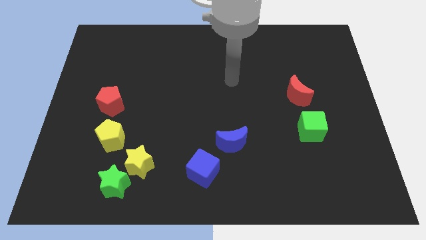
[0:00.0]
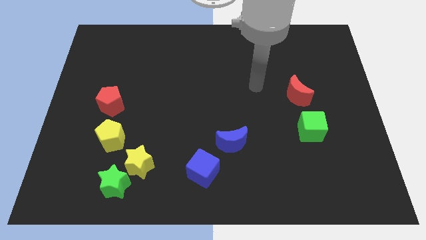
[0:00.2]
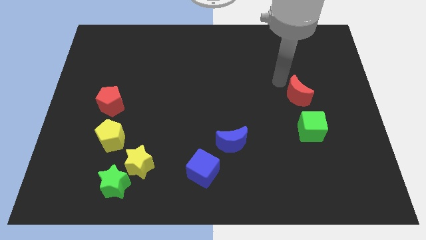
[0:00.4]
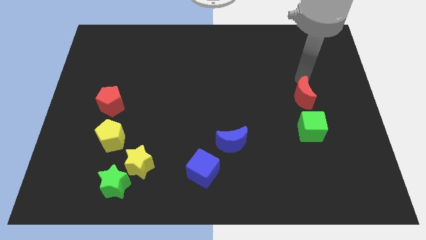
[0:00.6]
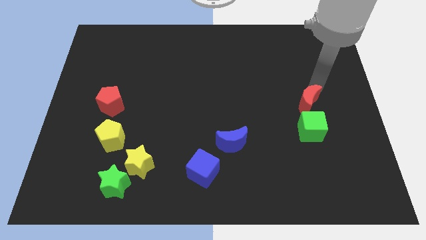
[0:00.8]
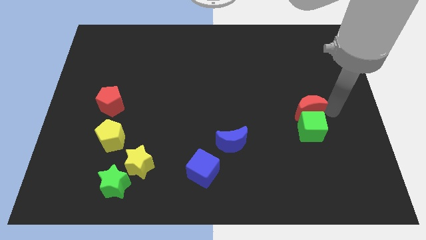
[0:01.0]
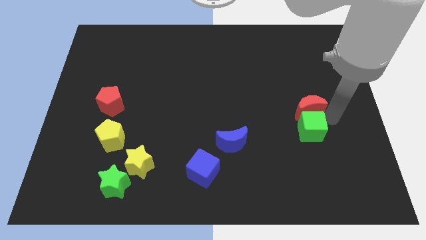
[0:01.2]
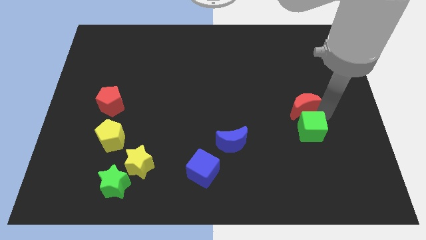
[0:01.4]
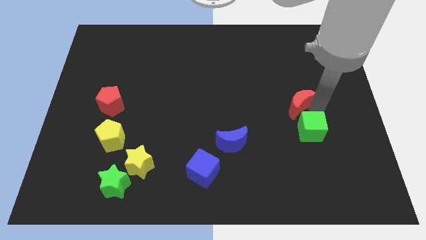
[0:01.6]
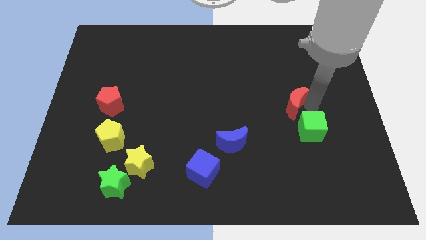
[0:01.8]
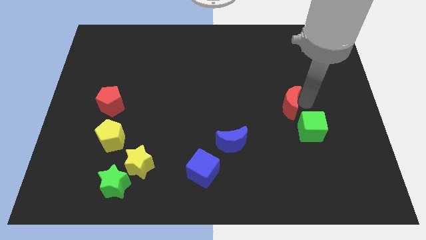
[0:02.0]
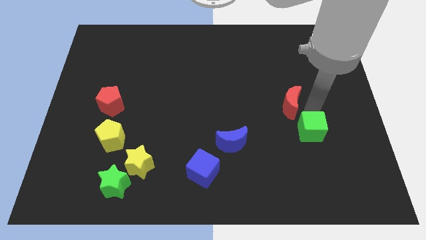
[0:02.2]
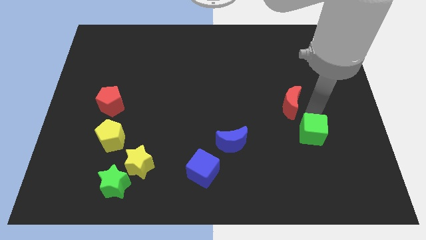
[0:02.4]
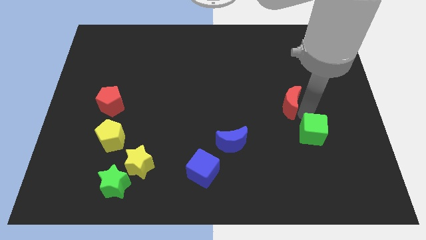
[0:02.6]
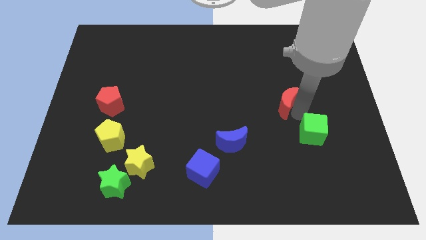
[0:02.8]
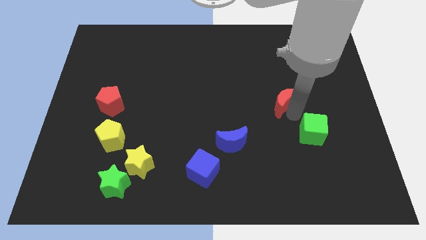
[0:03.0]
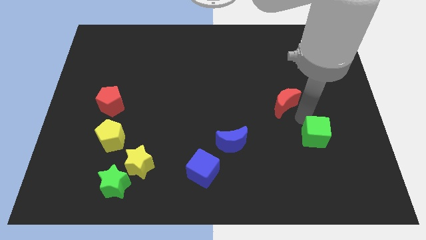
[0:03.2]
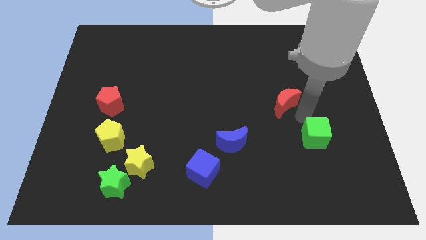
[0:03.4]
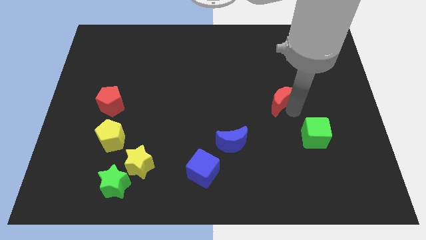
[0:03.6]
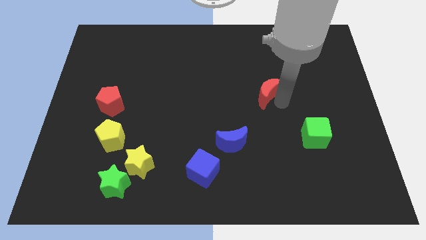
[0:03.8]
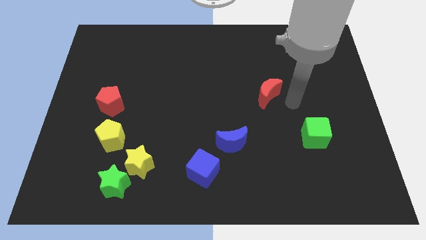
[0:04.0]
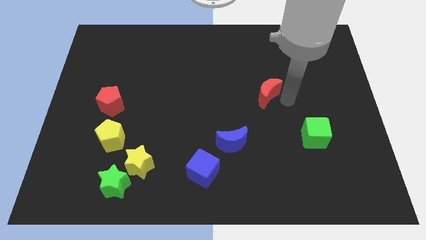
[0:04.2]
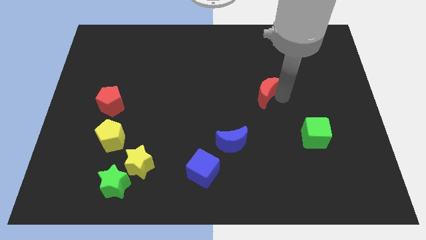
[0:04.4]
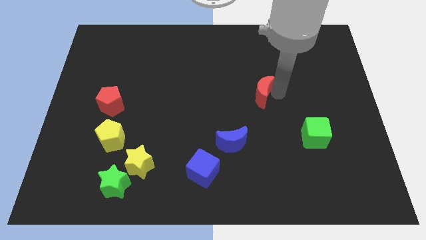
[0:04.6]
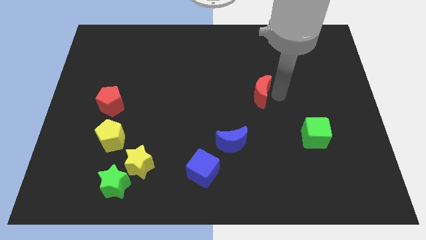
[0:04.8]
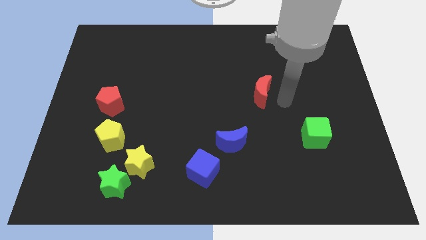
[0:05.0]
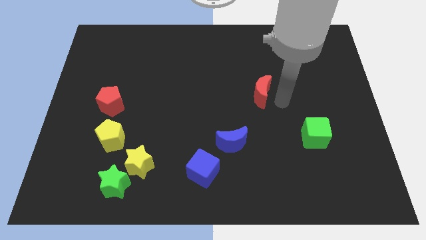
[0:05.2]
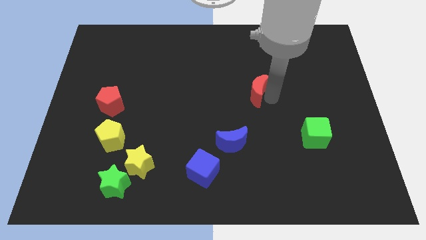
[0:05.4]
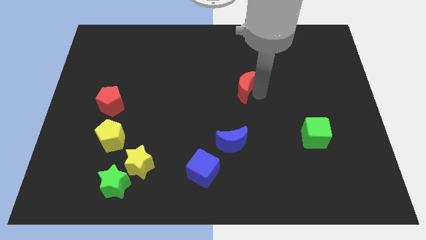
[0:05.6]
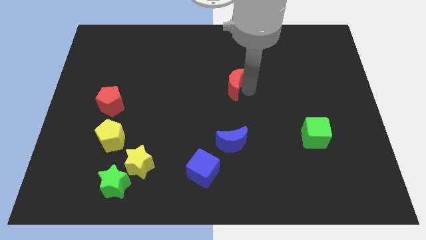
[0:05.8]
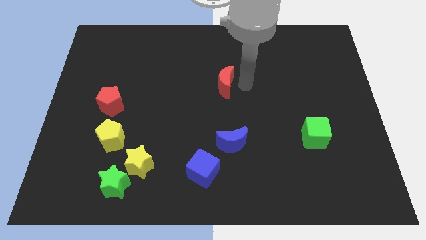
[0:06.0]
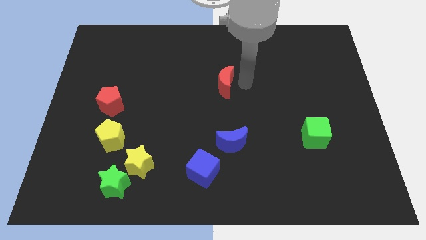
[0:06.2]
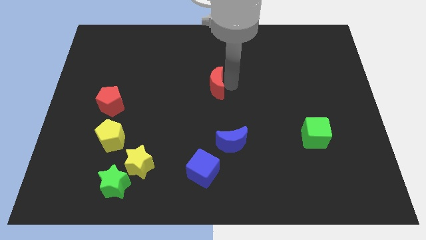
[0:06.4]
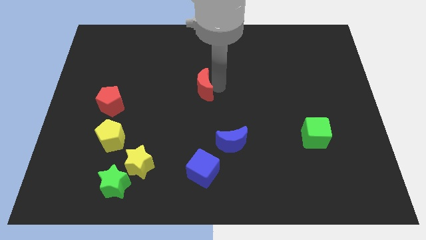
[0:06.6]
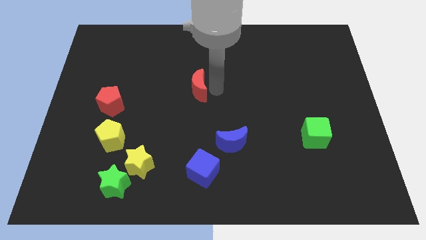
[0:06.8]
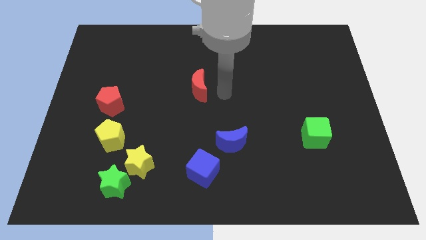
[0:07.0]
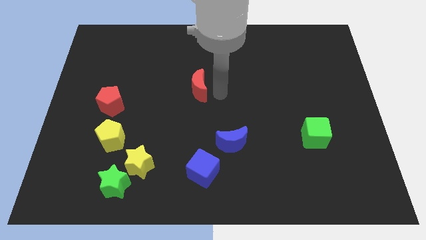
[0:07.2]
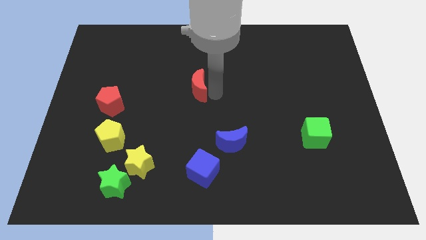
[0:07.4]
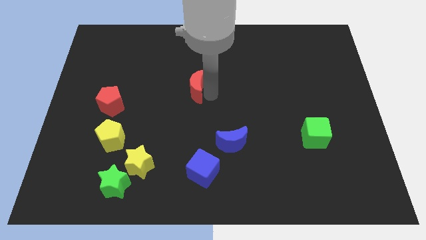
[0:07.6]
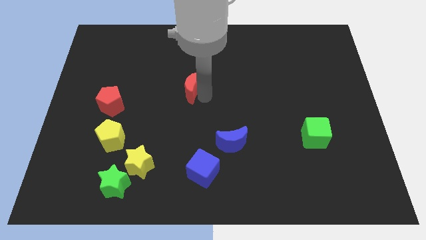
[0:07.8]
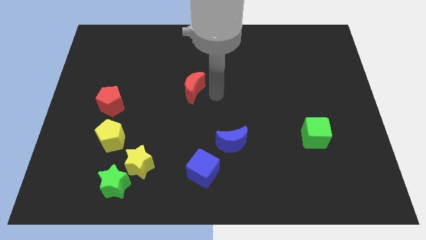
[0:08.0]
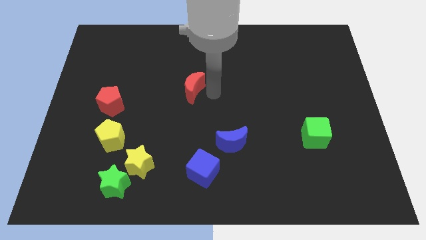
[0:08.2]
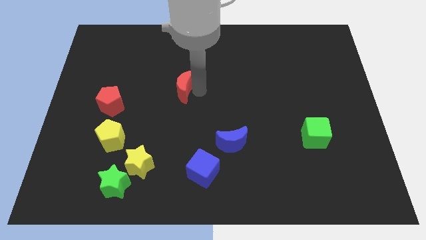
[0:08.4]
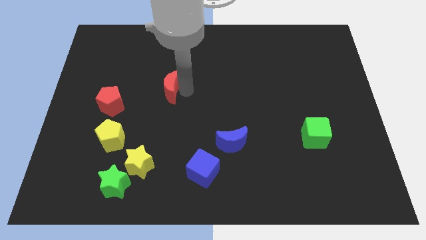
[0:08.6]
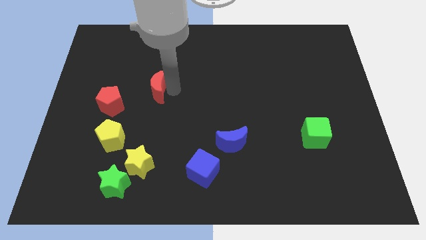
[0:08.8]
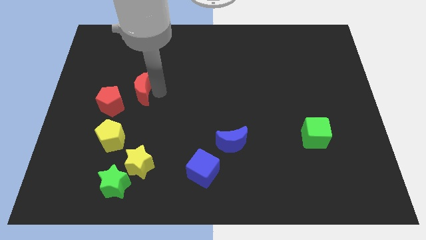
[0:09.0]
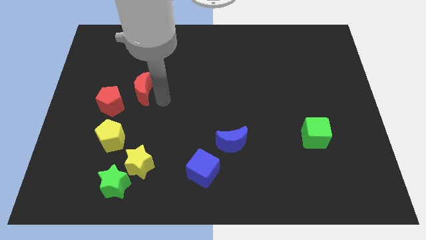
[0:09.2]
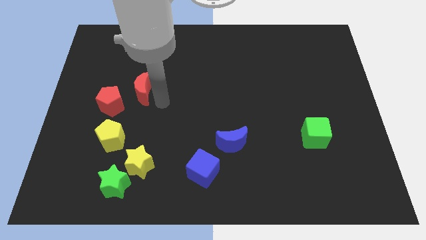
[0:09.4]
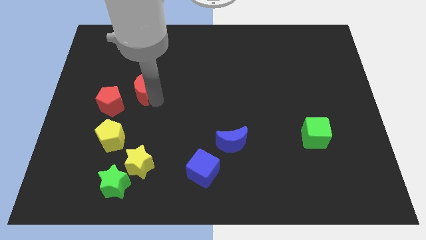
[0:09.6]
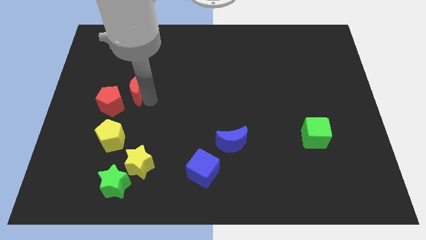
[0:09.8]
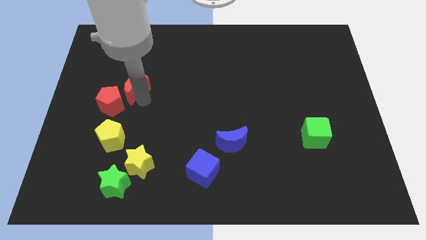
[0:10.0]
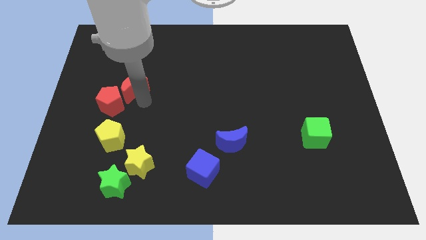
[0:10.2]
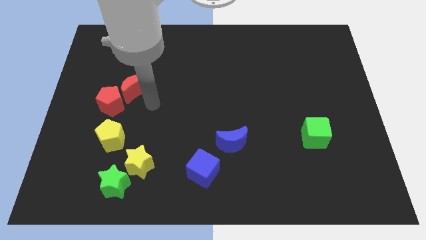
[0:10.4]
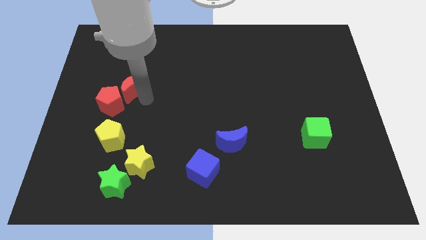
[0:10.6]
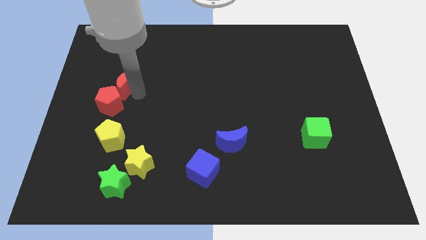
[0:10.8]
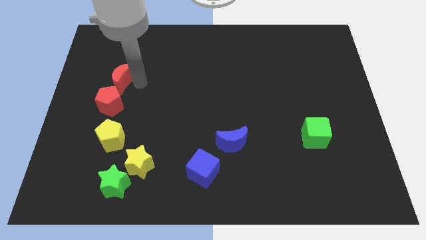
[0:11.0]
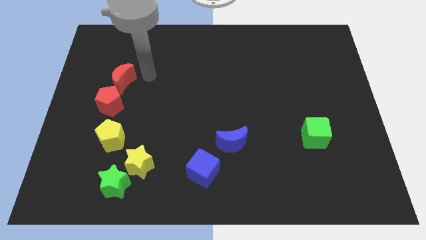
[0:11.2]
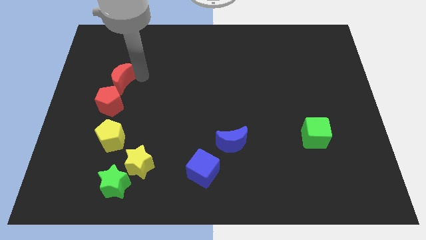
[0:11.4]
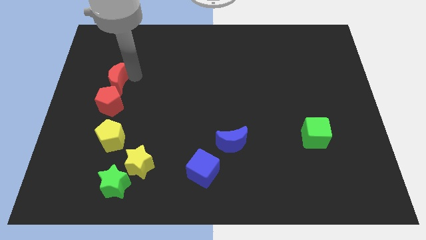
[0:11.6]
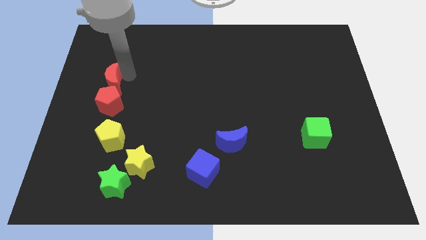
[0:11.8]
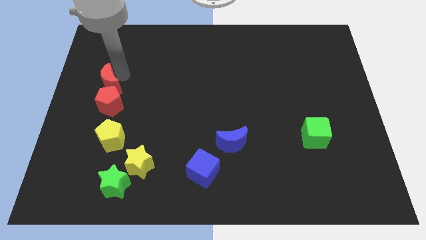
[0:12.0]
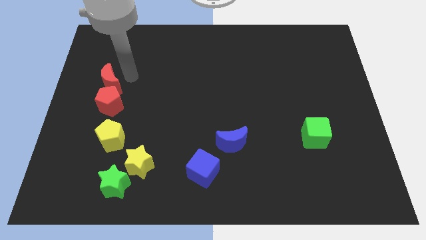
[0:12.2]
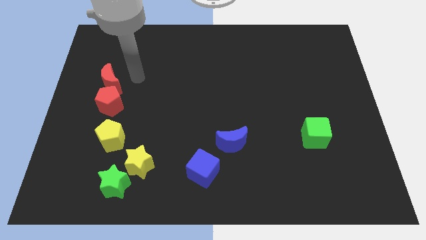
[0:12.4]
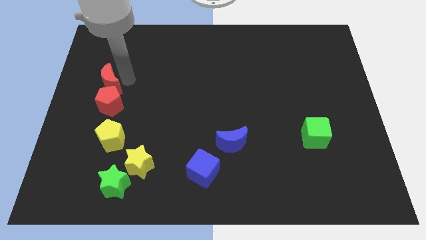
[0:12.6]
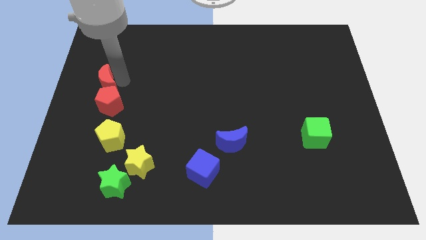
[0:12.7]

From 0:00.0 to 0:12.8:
put the red moon to the left side

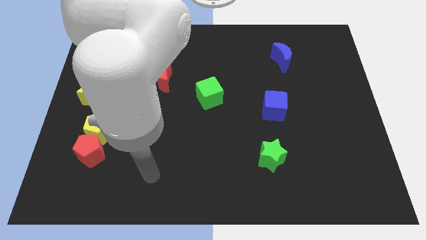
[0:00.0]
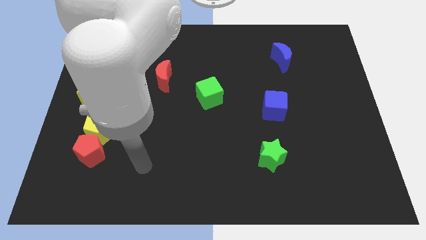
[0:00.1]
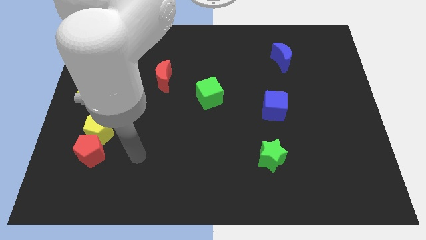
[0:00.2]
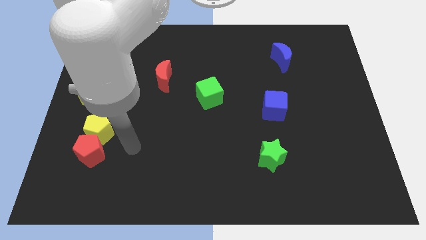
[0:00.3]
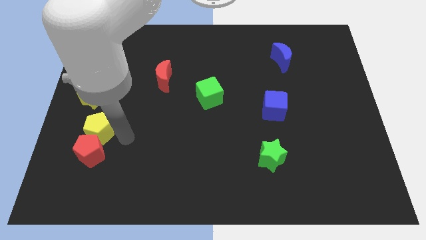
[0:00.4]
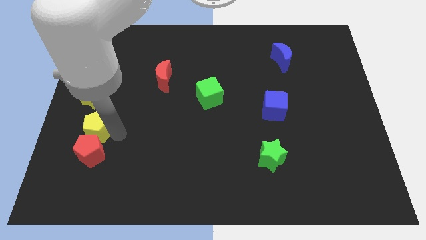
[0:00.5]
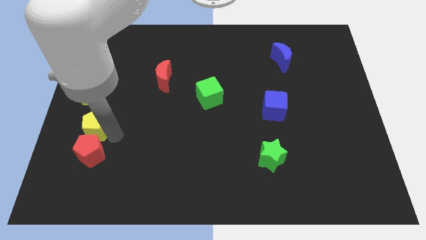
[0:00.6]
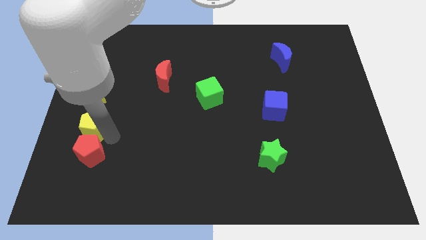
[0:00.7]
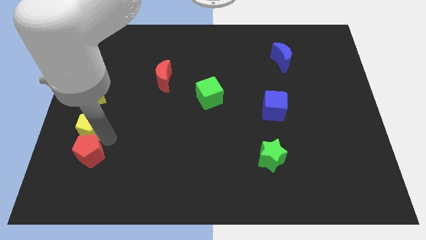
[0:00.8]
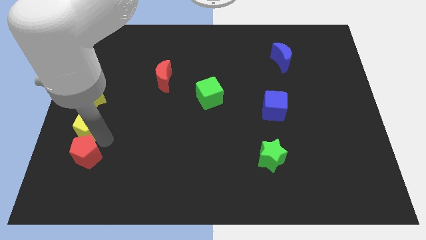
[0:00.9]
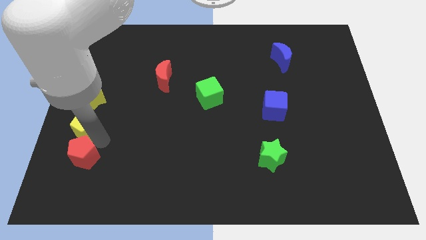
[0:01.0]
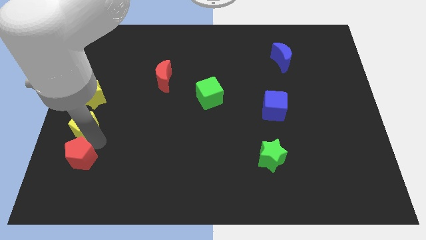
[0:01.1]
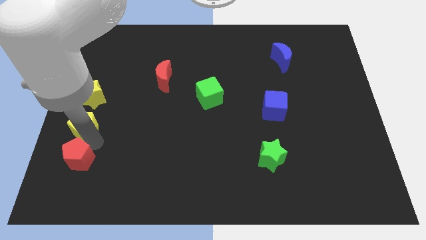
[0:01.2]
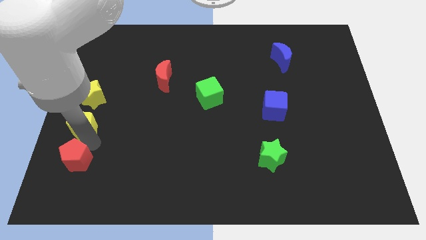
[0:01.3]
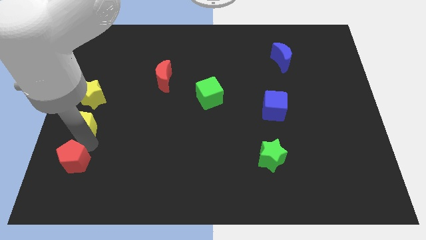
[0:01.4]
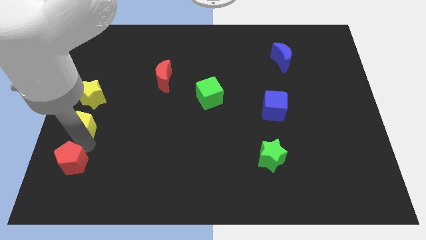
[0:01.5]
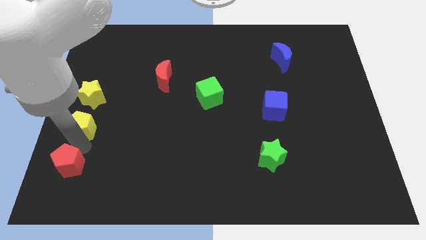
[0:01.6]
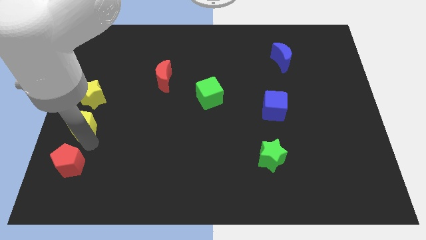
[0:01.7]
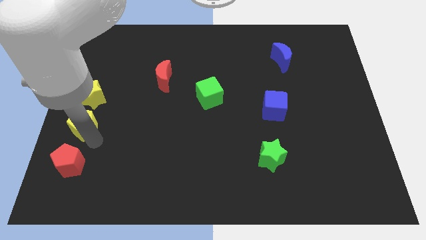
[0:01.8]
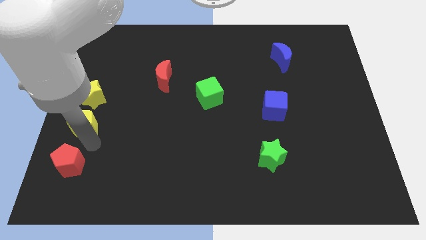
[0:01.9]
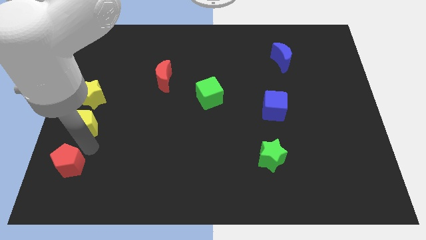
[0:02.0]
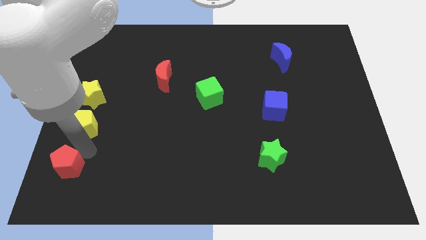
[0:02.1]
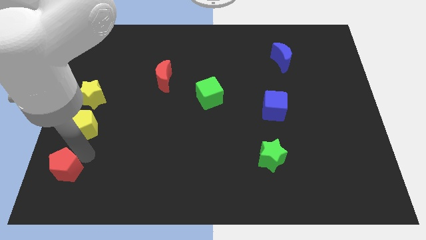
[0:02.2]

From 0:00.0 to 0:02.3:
put the red pentagon to the bottom left corner
